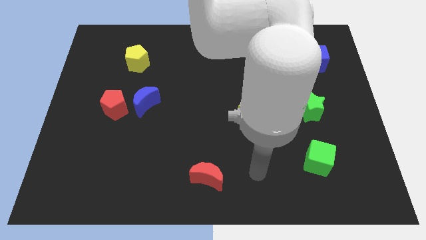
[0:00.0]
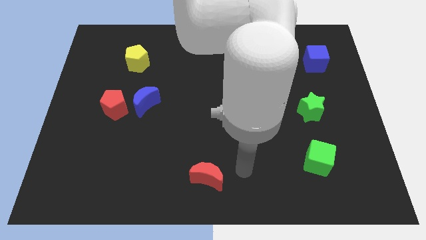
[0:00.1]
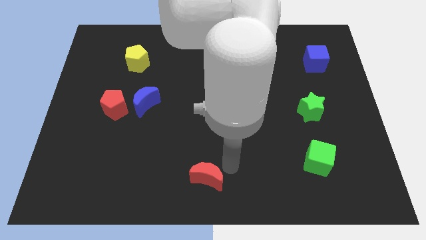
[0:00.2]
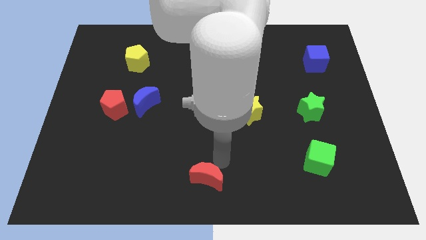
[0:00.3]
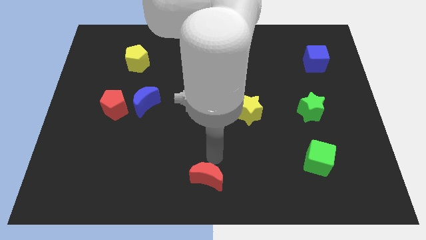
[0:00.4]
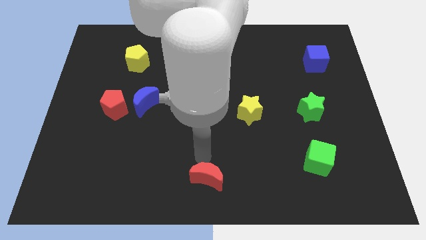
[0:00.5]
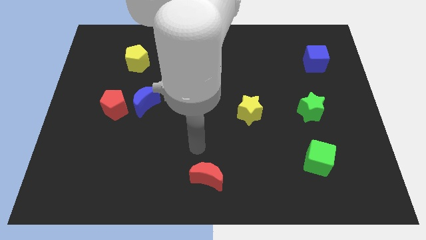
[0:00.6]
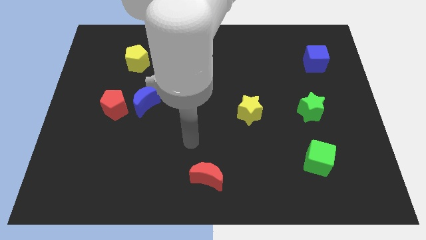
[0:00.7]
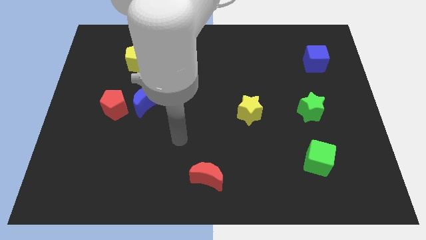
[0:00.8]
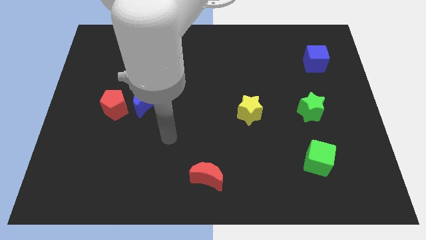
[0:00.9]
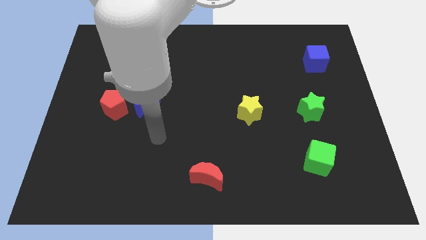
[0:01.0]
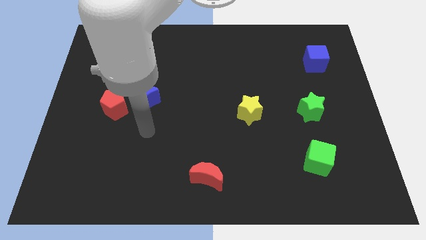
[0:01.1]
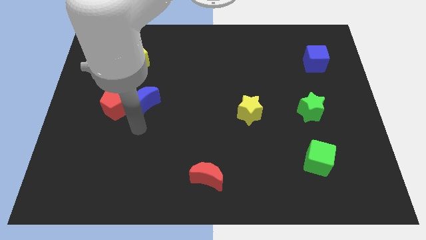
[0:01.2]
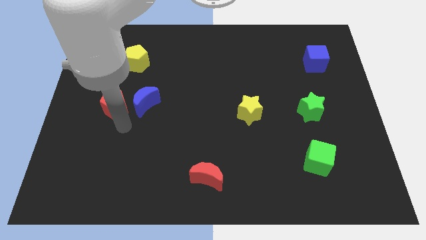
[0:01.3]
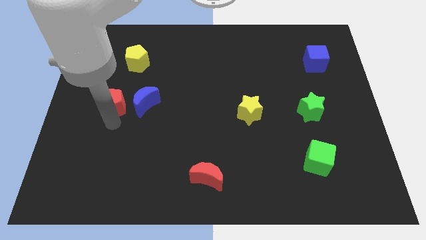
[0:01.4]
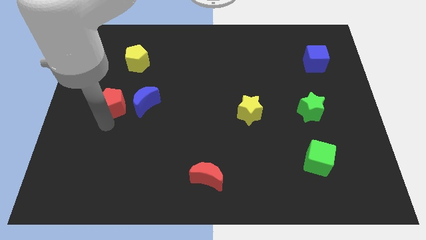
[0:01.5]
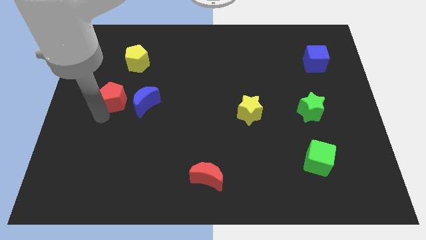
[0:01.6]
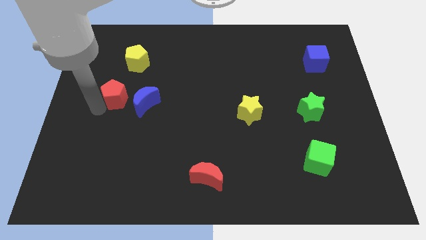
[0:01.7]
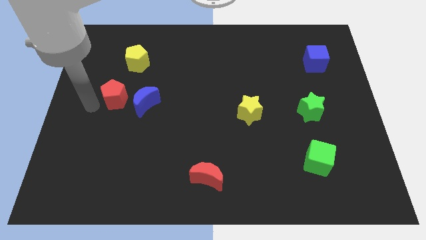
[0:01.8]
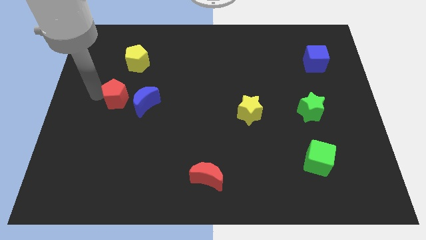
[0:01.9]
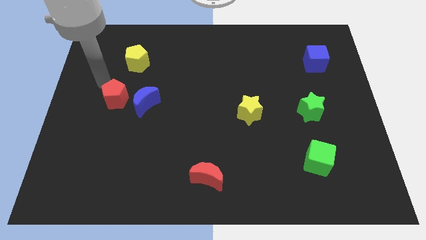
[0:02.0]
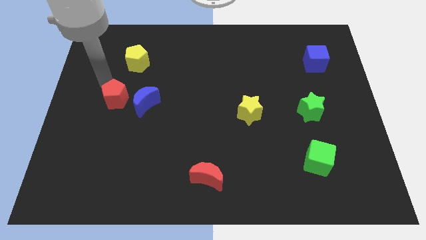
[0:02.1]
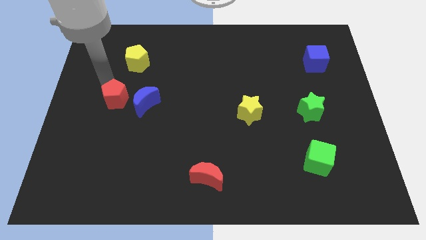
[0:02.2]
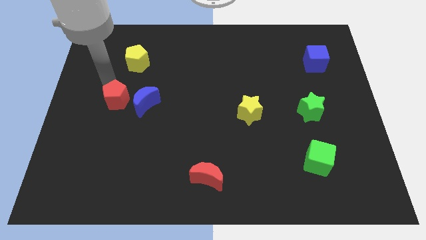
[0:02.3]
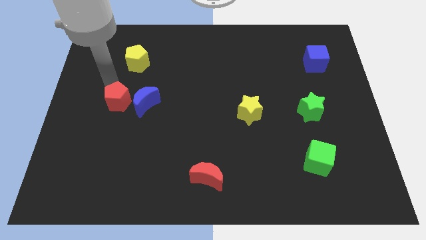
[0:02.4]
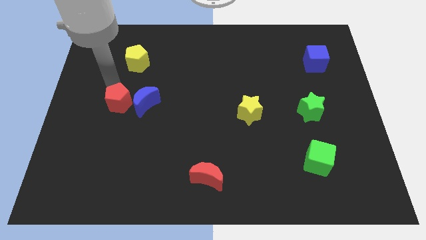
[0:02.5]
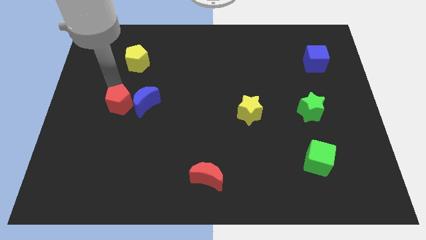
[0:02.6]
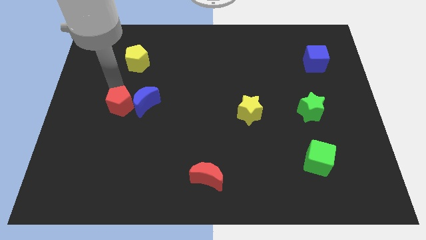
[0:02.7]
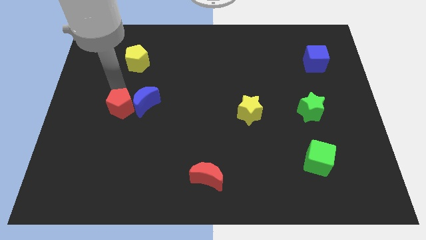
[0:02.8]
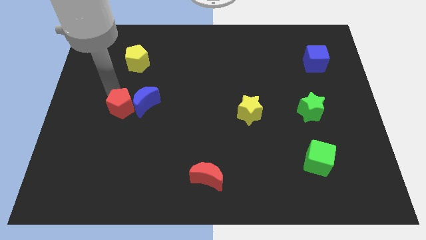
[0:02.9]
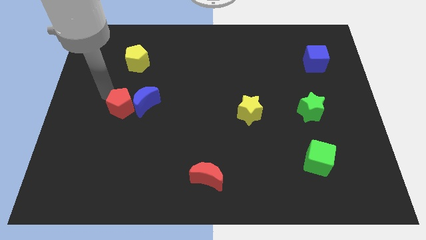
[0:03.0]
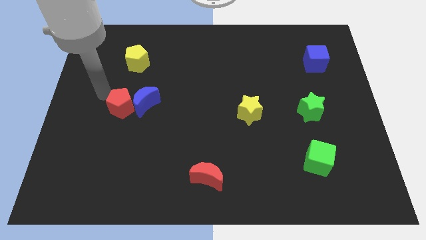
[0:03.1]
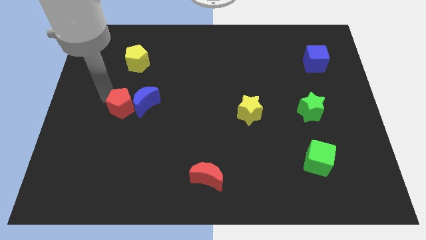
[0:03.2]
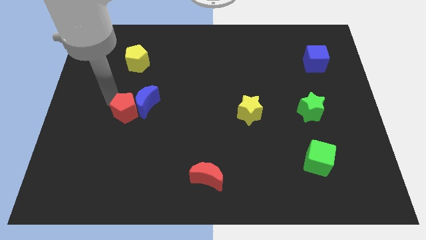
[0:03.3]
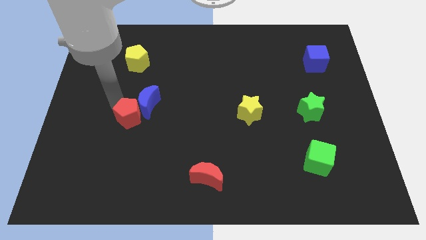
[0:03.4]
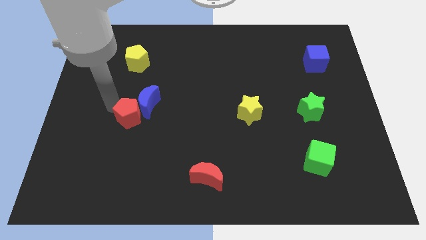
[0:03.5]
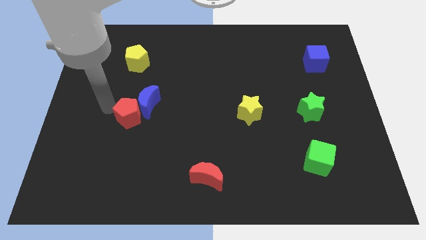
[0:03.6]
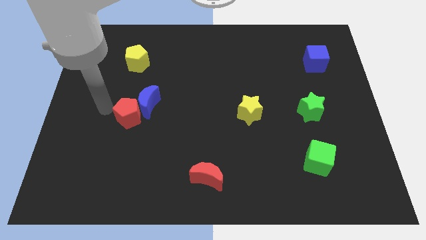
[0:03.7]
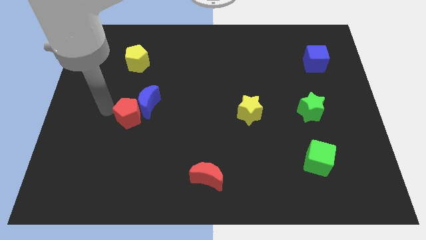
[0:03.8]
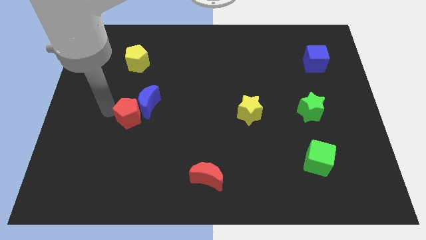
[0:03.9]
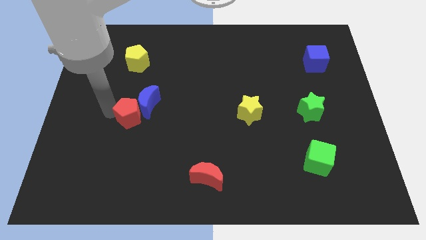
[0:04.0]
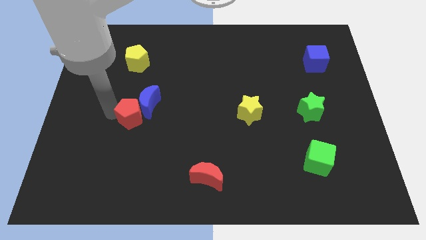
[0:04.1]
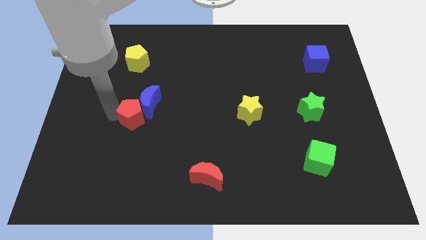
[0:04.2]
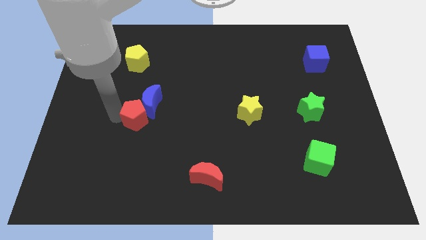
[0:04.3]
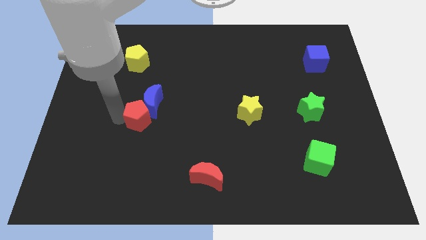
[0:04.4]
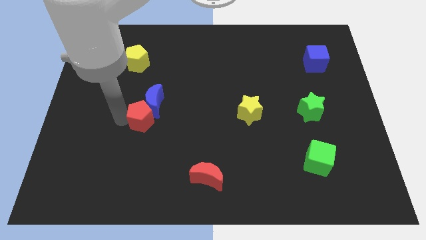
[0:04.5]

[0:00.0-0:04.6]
push the red pentagon a little bit down and right

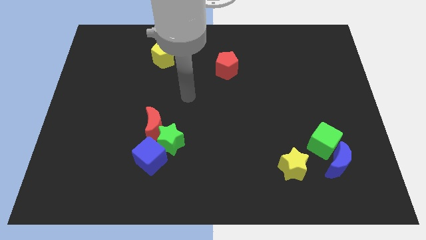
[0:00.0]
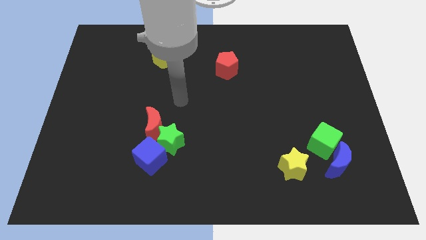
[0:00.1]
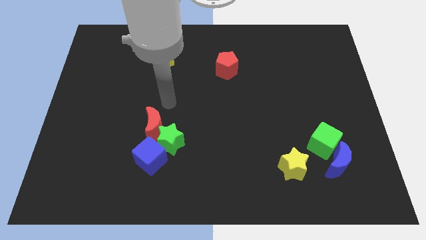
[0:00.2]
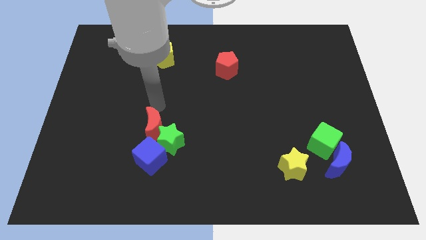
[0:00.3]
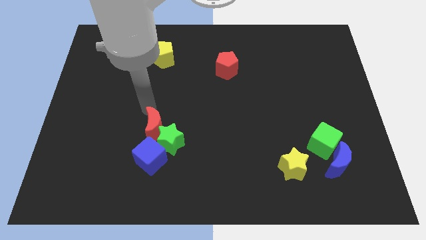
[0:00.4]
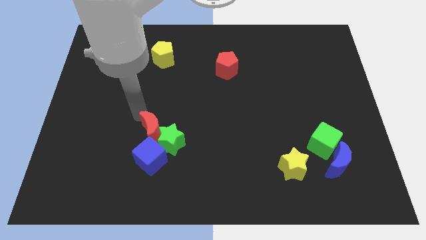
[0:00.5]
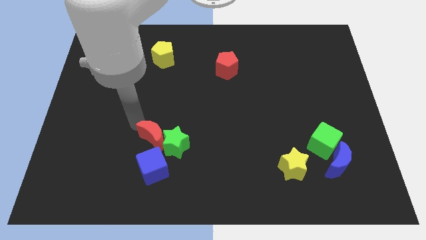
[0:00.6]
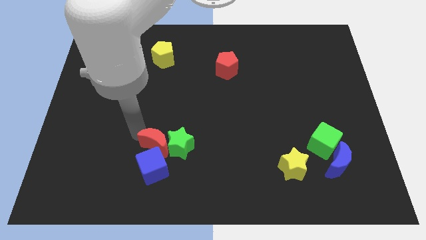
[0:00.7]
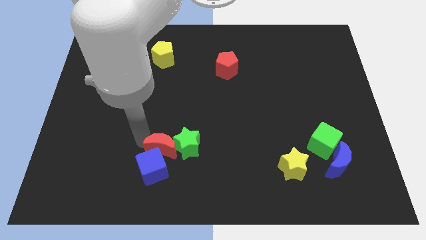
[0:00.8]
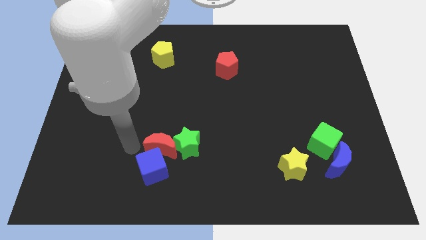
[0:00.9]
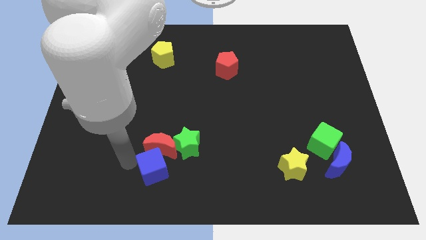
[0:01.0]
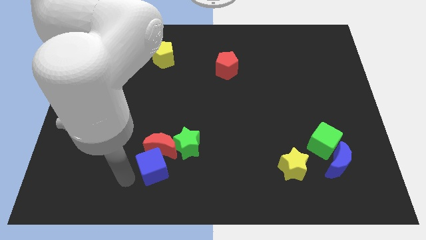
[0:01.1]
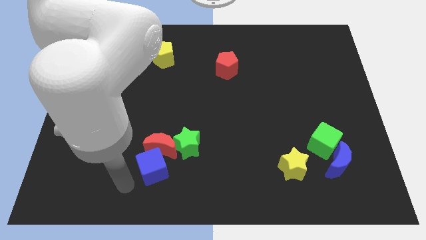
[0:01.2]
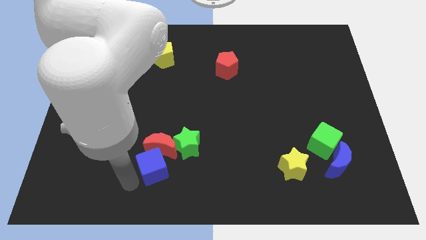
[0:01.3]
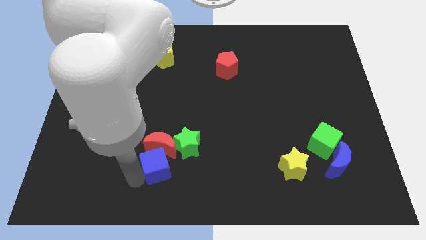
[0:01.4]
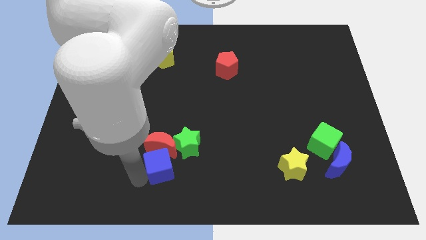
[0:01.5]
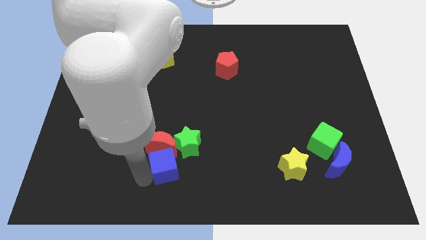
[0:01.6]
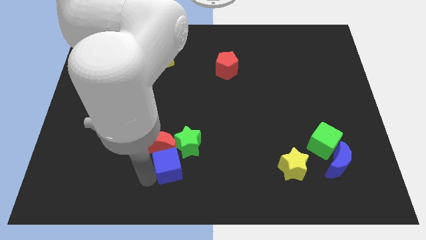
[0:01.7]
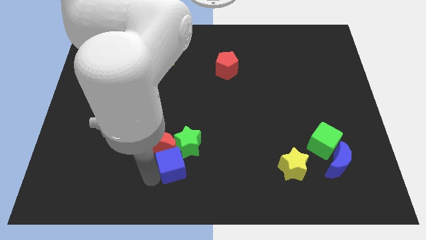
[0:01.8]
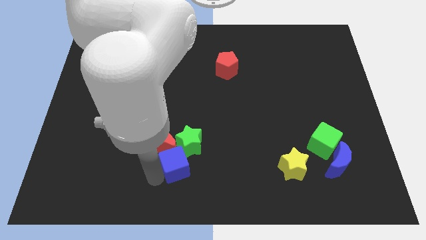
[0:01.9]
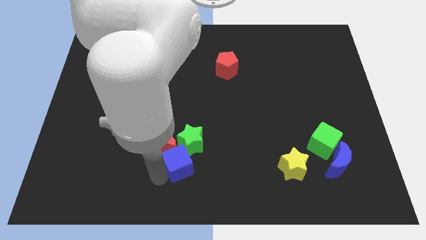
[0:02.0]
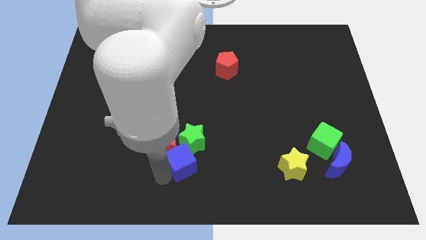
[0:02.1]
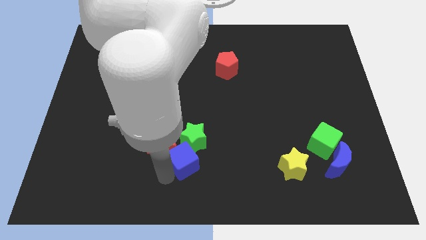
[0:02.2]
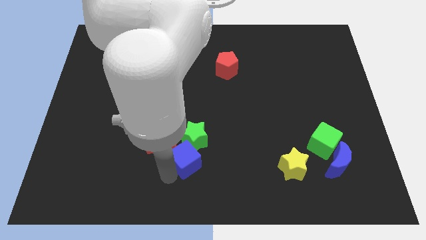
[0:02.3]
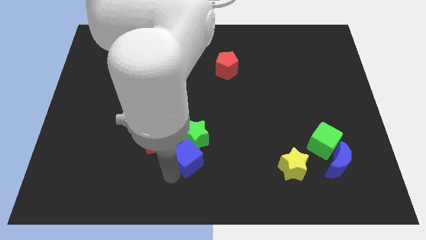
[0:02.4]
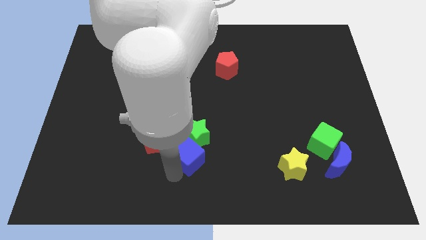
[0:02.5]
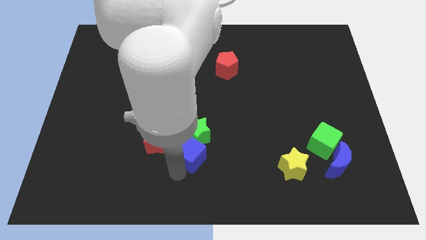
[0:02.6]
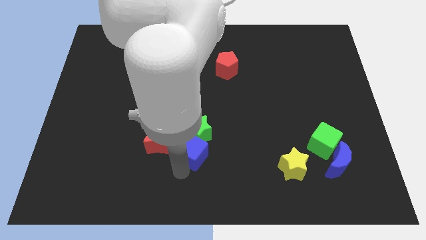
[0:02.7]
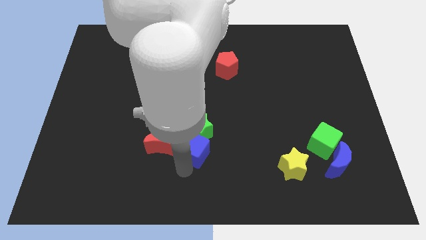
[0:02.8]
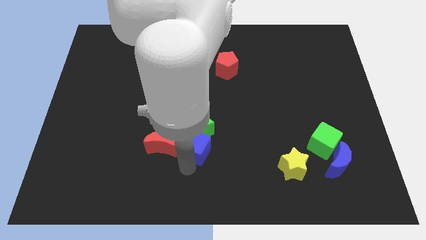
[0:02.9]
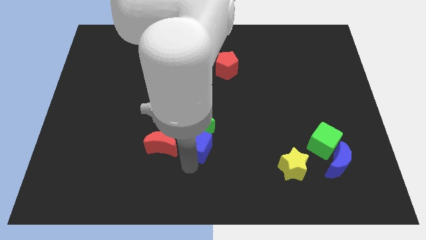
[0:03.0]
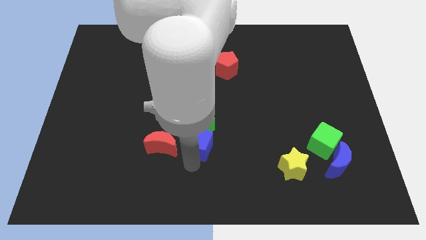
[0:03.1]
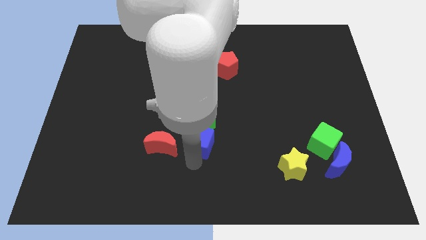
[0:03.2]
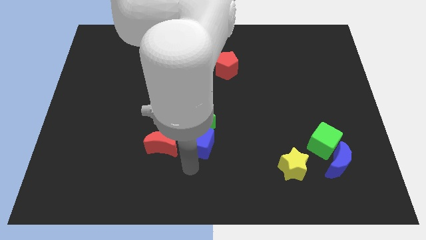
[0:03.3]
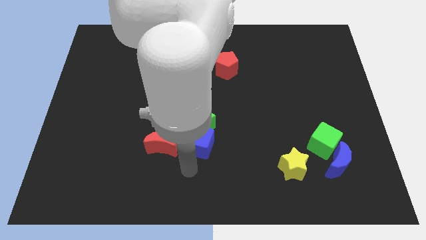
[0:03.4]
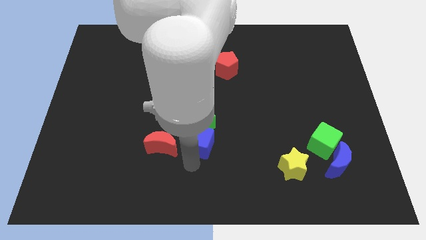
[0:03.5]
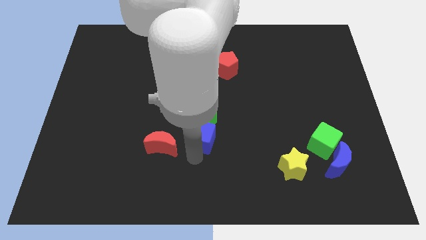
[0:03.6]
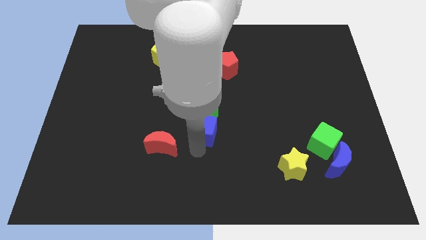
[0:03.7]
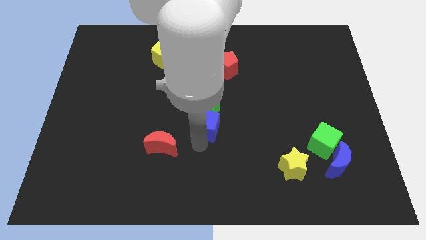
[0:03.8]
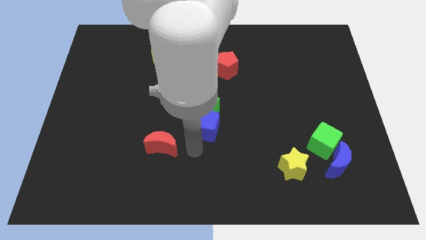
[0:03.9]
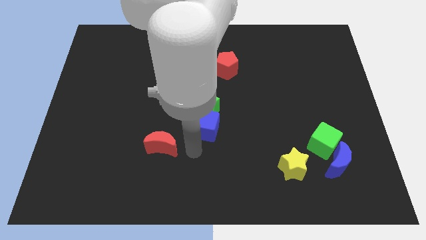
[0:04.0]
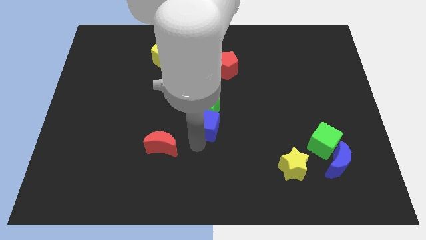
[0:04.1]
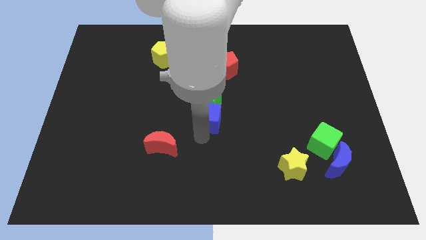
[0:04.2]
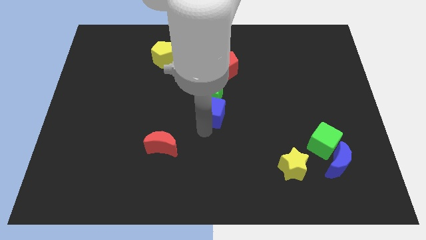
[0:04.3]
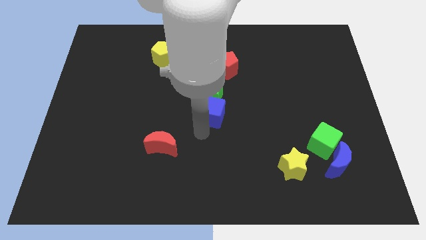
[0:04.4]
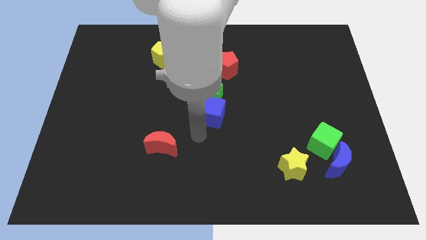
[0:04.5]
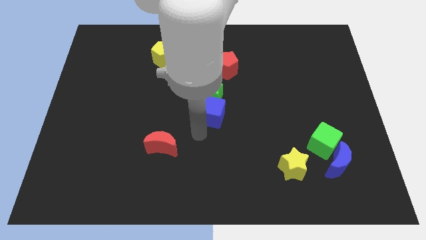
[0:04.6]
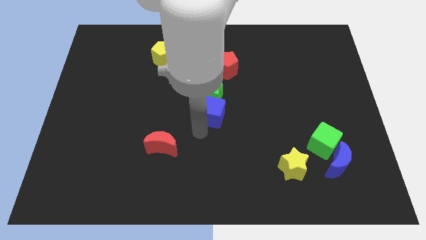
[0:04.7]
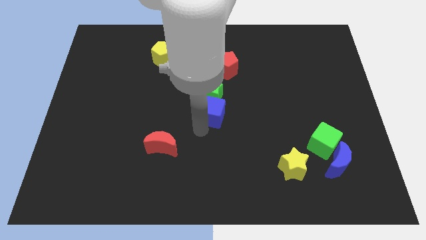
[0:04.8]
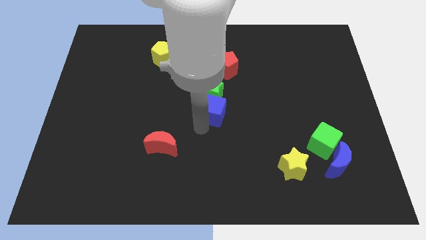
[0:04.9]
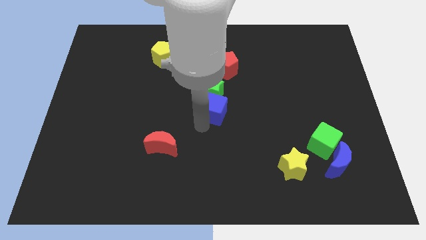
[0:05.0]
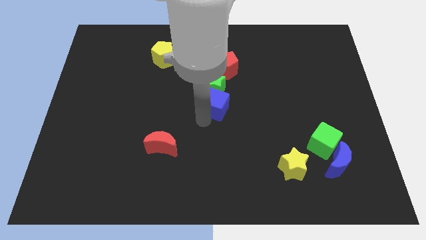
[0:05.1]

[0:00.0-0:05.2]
push the blue cube up and then right
